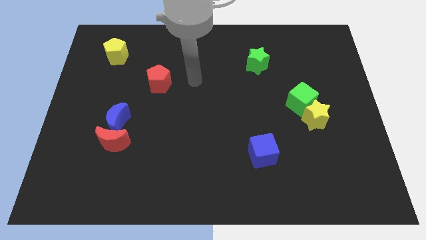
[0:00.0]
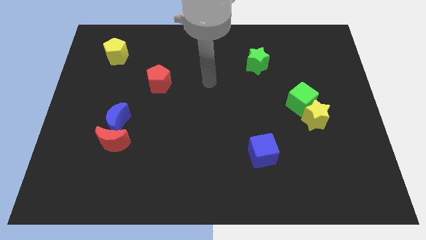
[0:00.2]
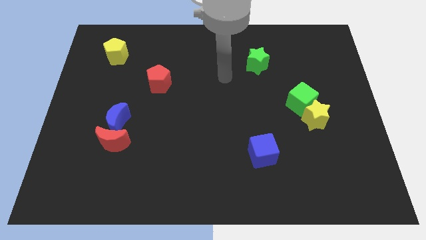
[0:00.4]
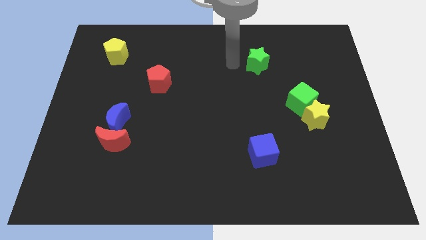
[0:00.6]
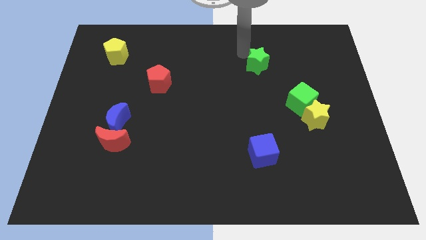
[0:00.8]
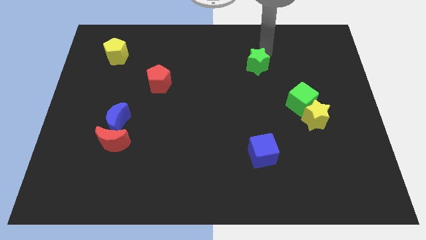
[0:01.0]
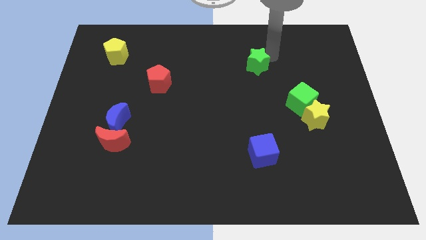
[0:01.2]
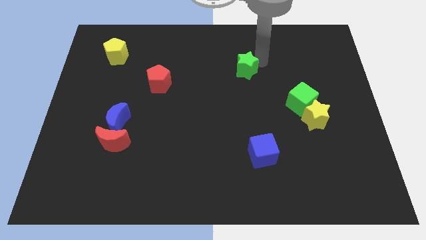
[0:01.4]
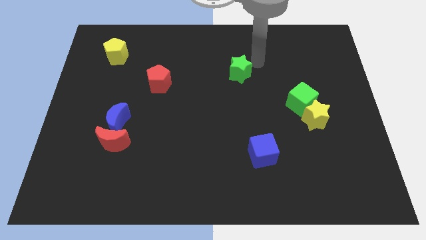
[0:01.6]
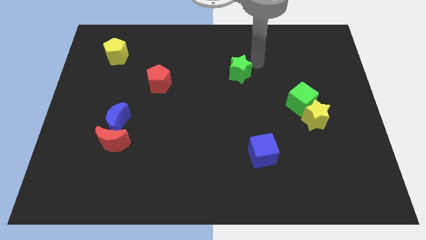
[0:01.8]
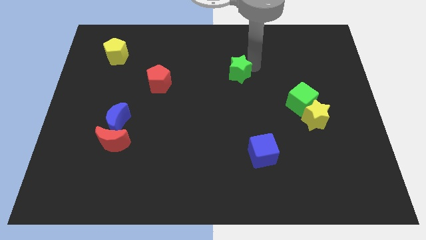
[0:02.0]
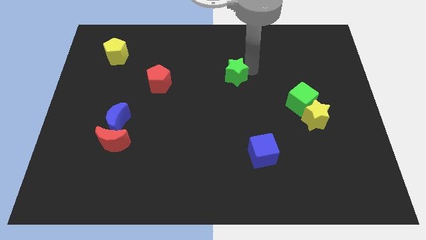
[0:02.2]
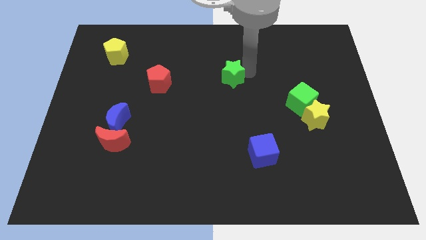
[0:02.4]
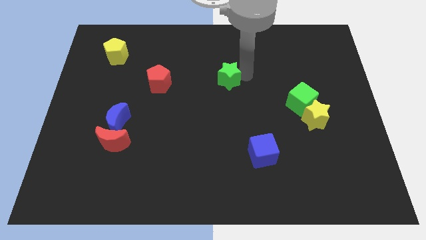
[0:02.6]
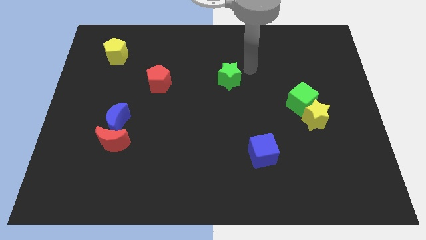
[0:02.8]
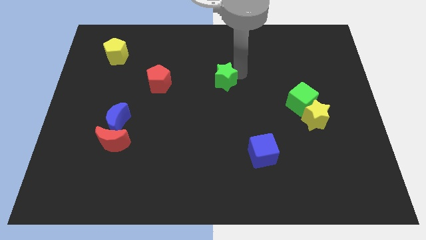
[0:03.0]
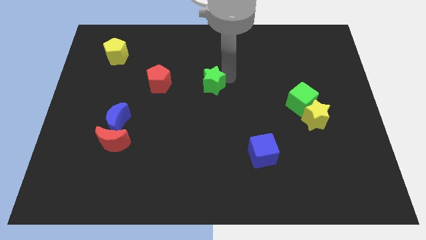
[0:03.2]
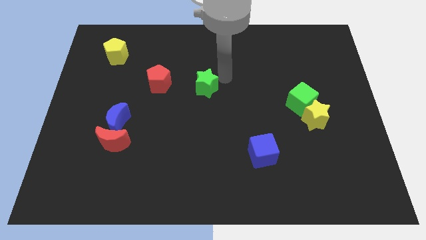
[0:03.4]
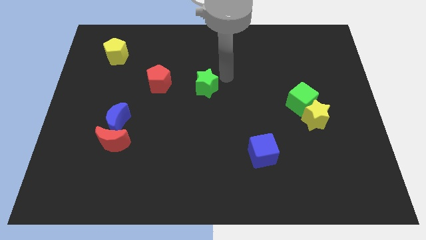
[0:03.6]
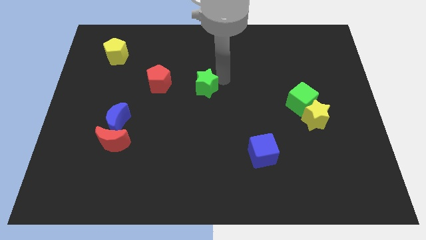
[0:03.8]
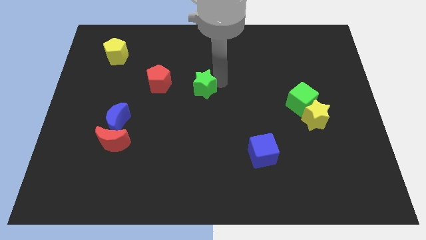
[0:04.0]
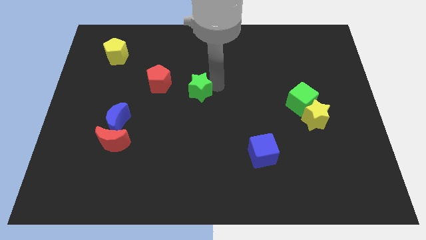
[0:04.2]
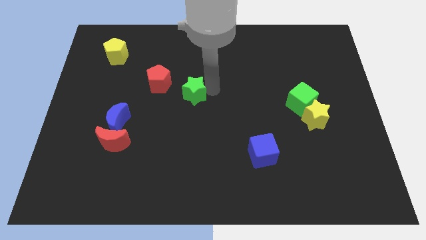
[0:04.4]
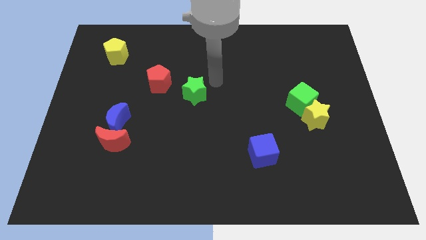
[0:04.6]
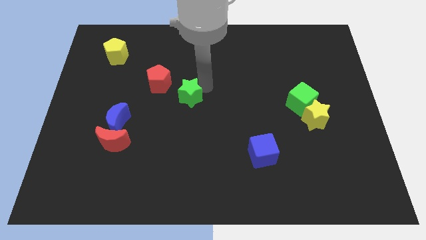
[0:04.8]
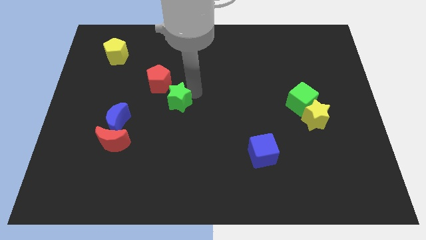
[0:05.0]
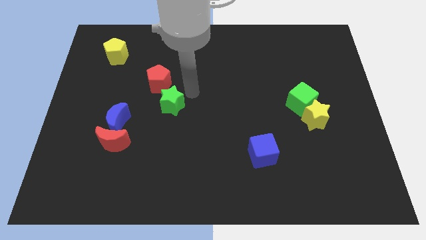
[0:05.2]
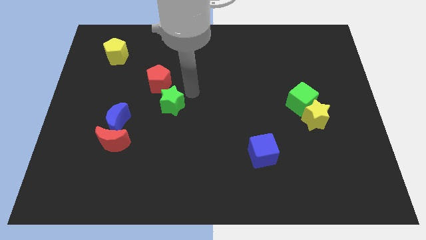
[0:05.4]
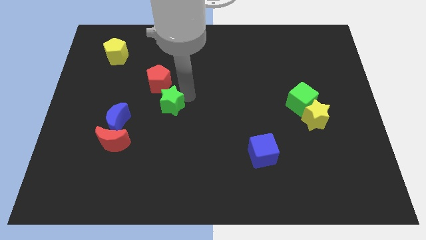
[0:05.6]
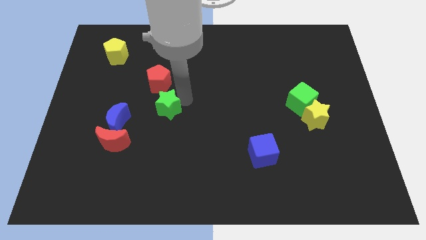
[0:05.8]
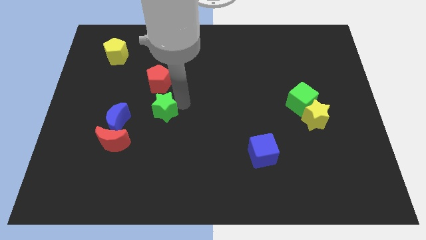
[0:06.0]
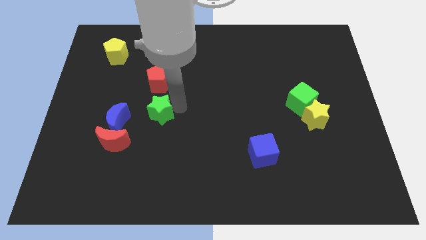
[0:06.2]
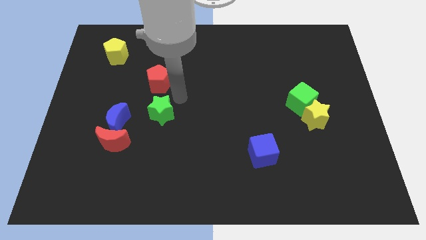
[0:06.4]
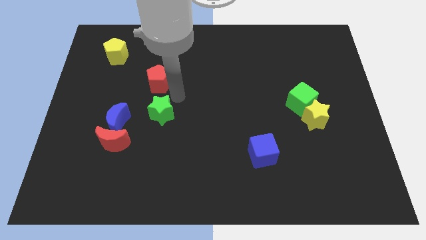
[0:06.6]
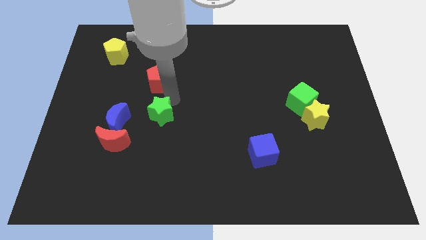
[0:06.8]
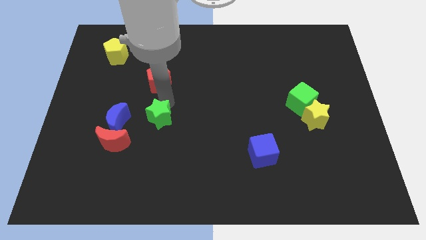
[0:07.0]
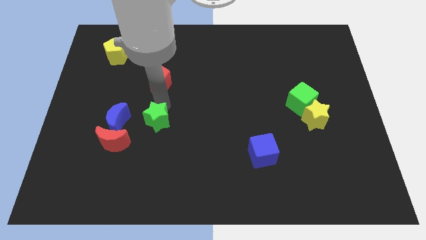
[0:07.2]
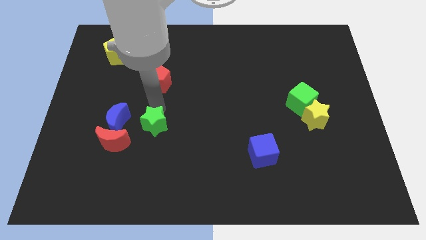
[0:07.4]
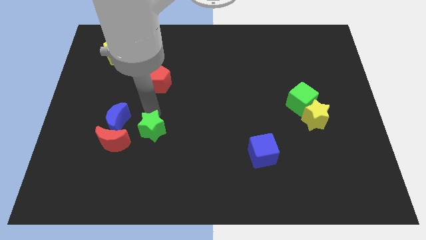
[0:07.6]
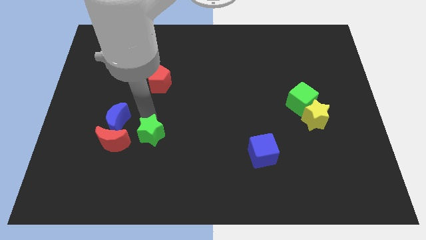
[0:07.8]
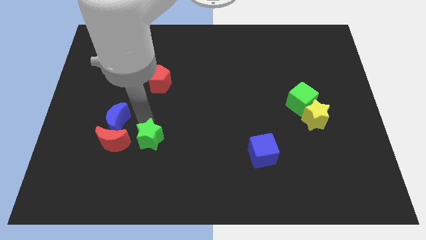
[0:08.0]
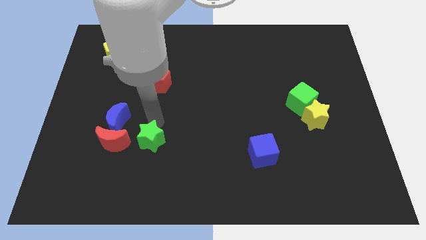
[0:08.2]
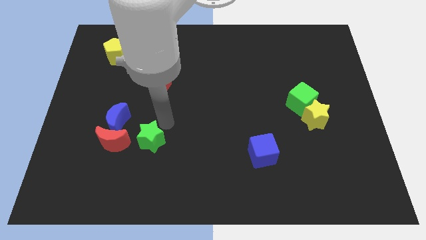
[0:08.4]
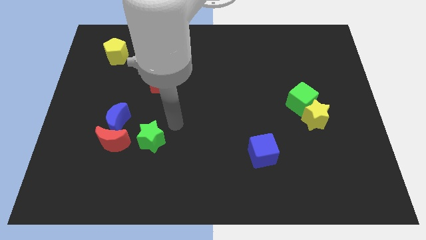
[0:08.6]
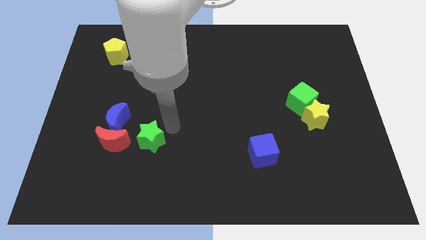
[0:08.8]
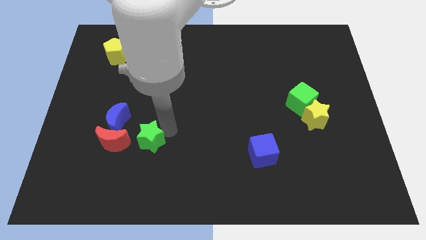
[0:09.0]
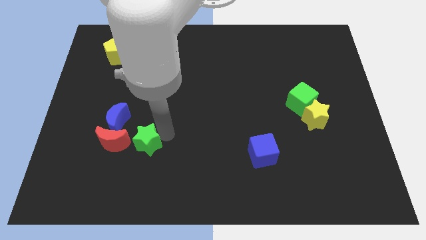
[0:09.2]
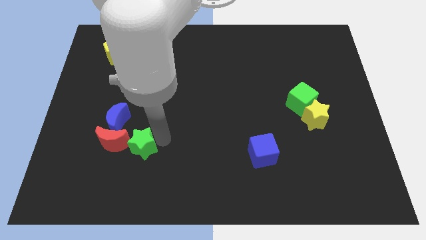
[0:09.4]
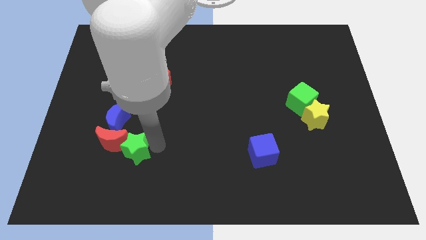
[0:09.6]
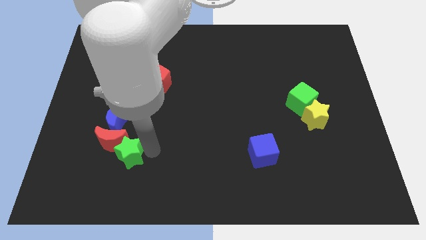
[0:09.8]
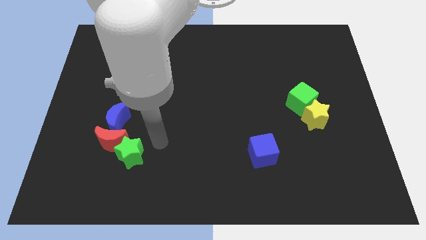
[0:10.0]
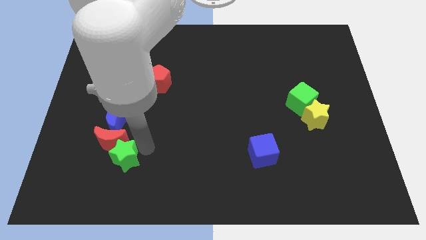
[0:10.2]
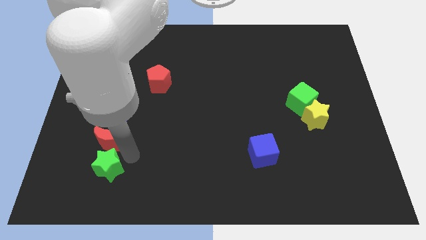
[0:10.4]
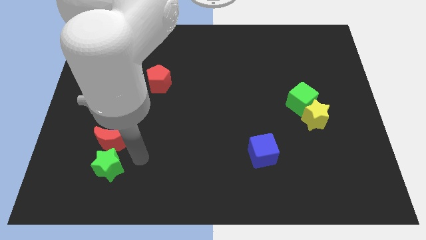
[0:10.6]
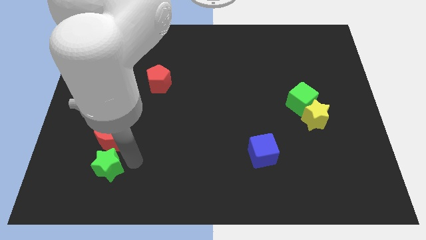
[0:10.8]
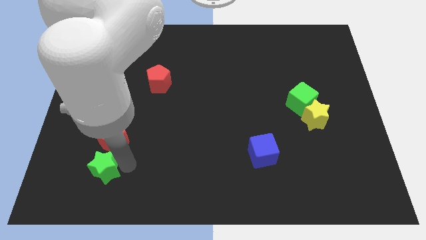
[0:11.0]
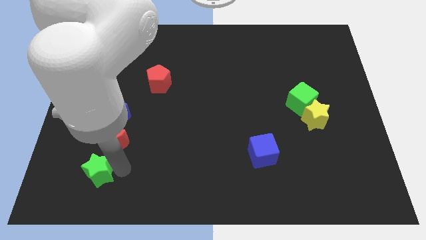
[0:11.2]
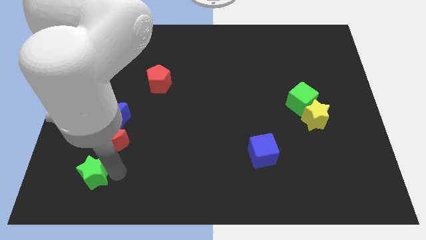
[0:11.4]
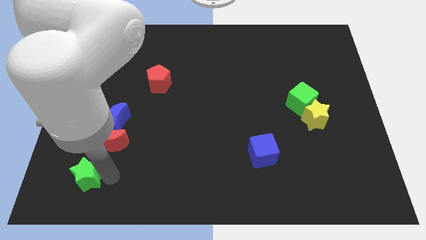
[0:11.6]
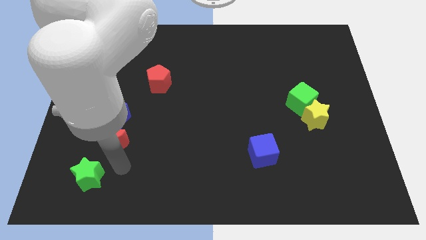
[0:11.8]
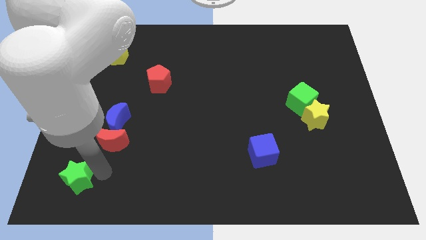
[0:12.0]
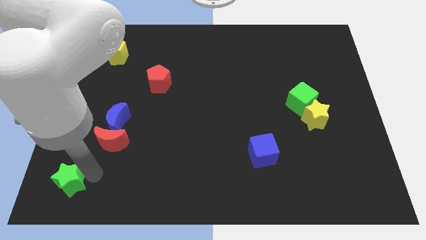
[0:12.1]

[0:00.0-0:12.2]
push the green star to the bottom left corner
